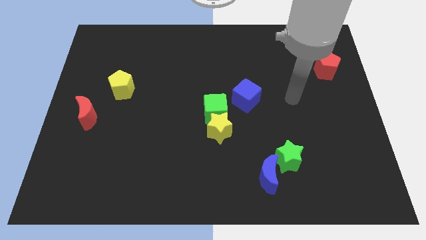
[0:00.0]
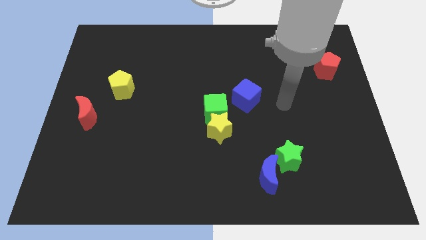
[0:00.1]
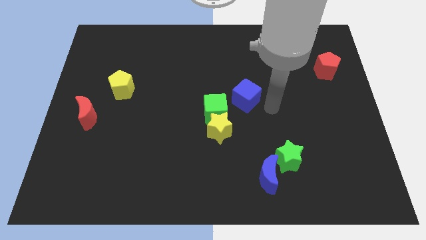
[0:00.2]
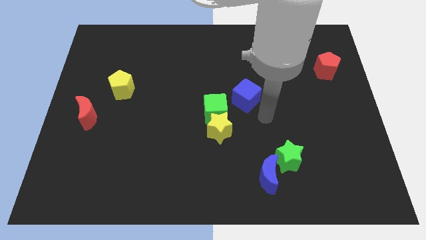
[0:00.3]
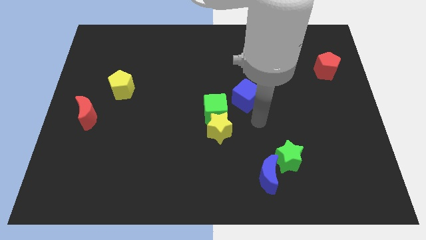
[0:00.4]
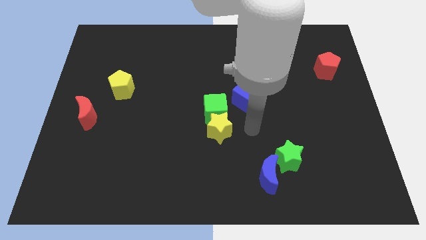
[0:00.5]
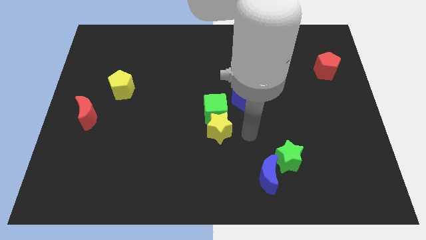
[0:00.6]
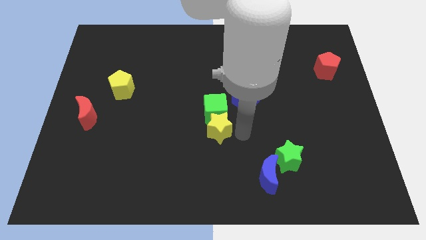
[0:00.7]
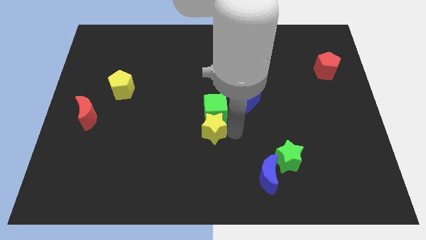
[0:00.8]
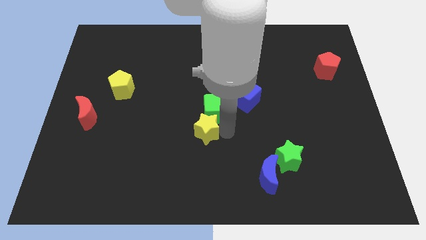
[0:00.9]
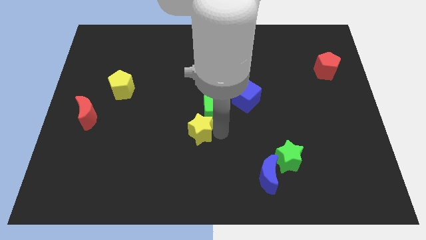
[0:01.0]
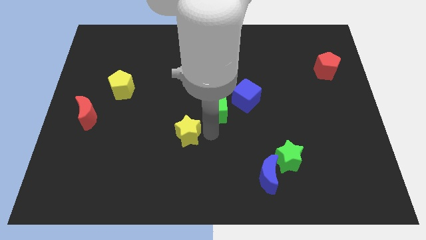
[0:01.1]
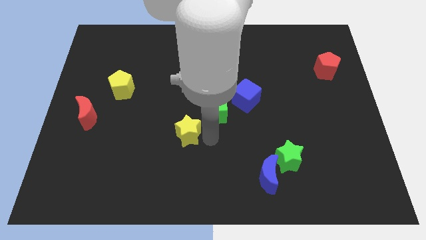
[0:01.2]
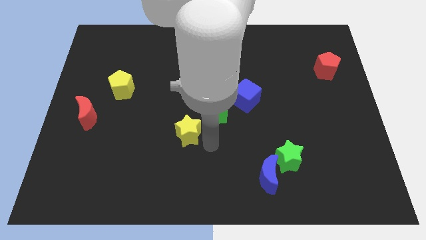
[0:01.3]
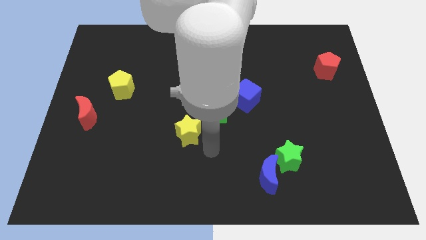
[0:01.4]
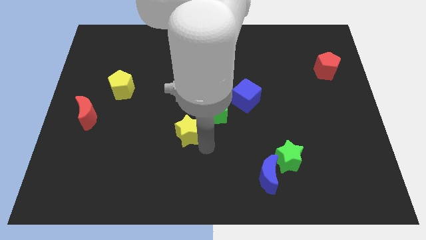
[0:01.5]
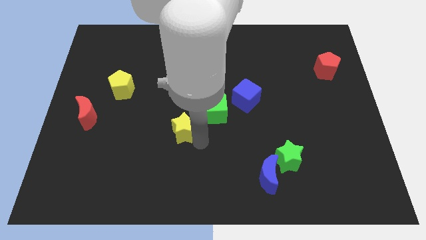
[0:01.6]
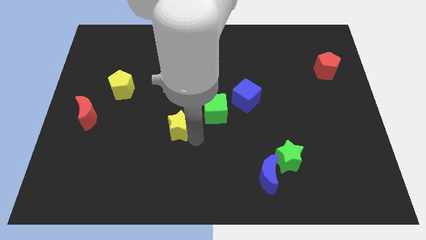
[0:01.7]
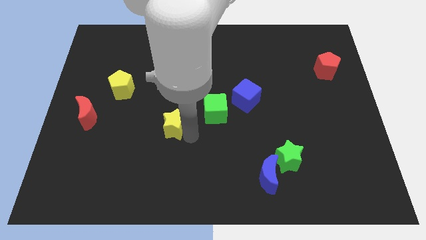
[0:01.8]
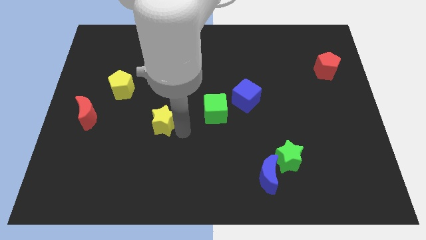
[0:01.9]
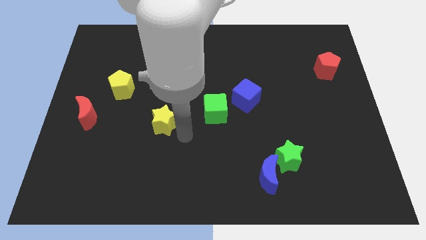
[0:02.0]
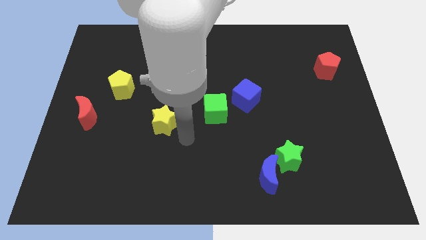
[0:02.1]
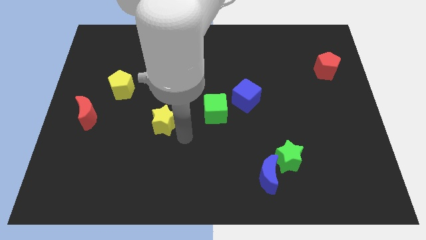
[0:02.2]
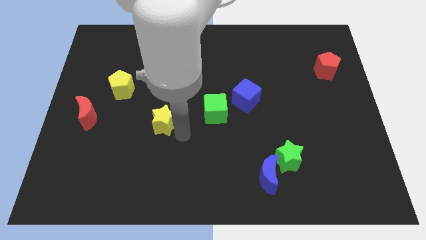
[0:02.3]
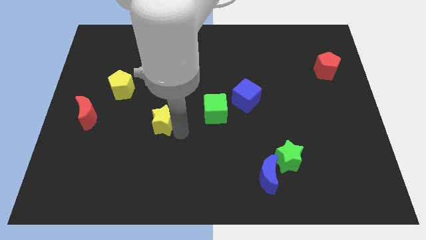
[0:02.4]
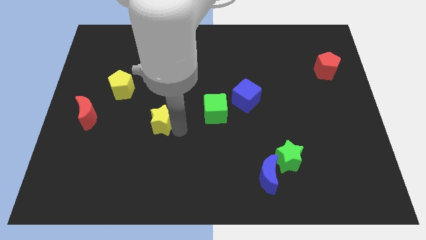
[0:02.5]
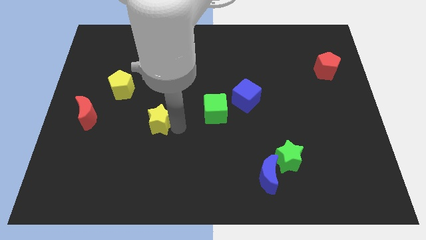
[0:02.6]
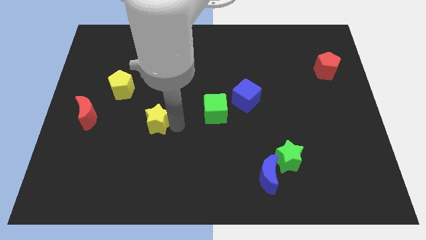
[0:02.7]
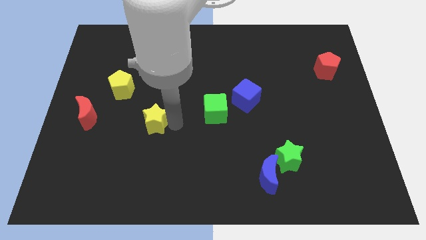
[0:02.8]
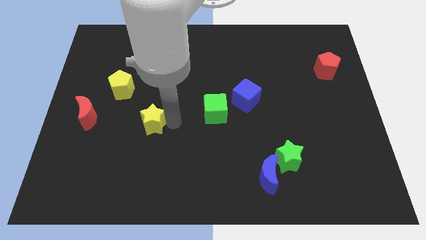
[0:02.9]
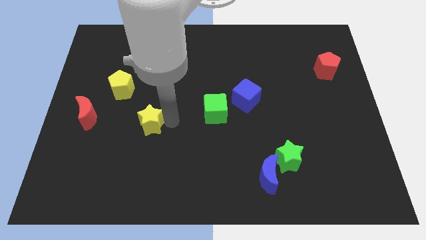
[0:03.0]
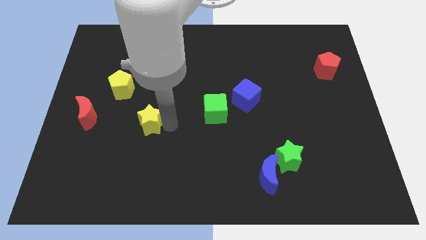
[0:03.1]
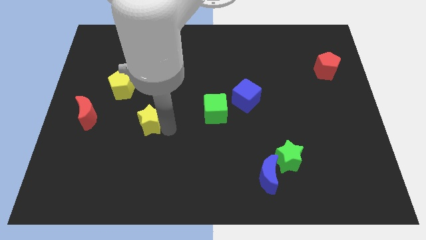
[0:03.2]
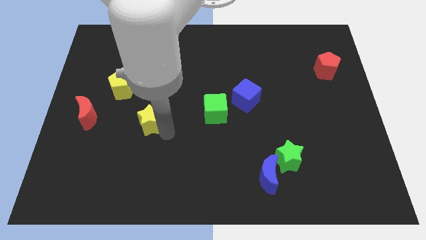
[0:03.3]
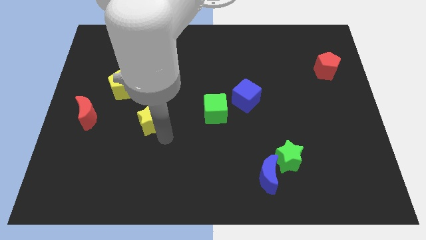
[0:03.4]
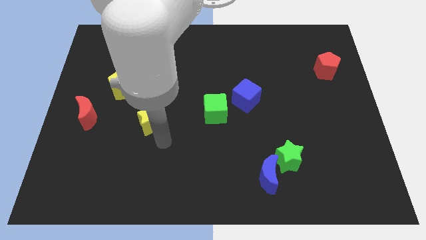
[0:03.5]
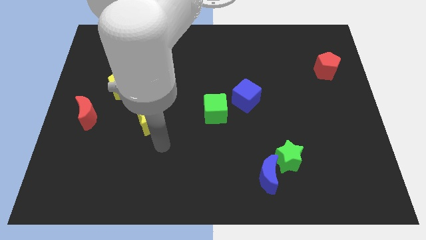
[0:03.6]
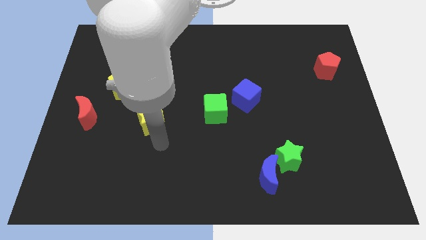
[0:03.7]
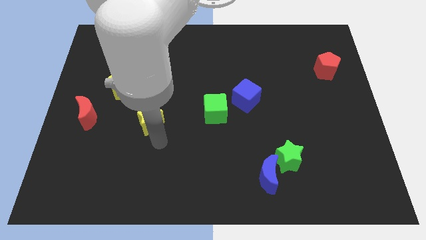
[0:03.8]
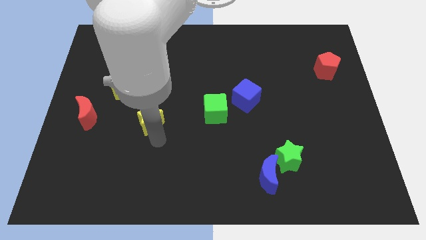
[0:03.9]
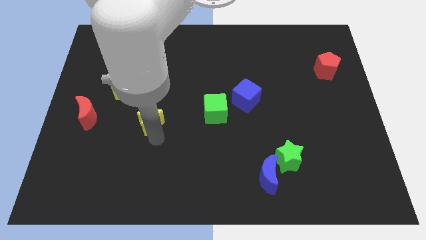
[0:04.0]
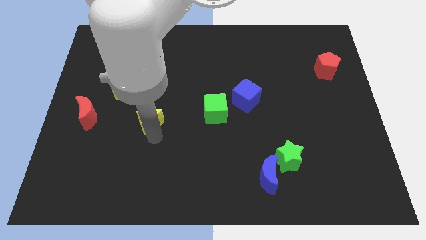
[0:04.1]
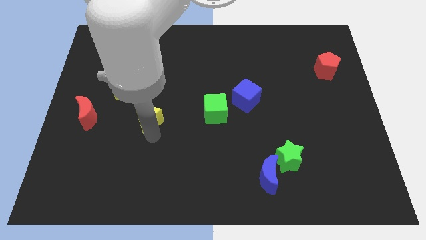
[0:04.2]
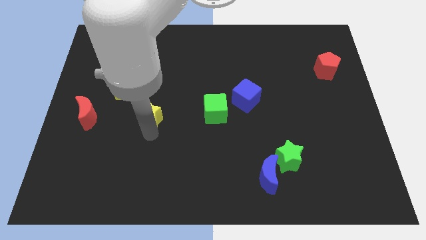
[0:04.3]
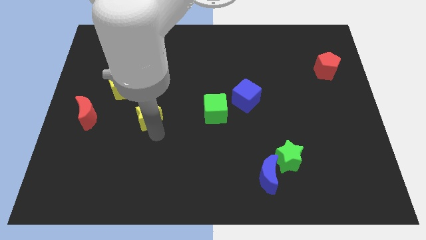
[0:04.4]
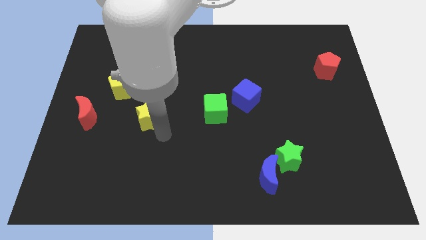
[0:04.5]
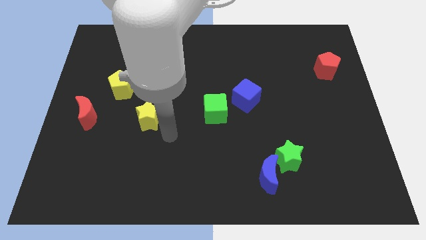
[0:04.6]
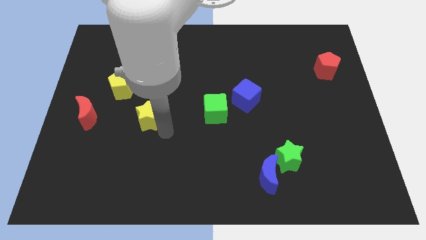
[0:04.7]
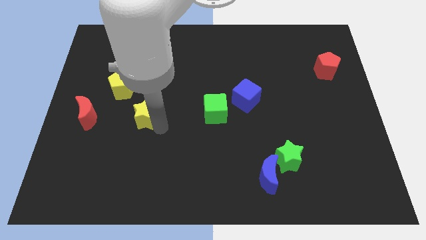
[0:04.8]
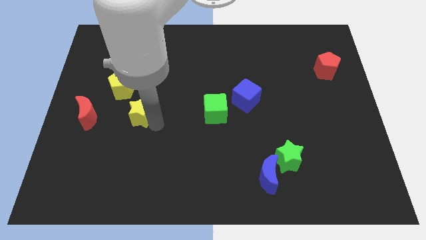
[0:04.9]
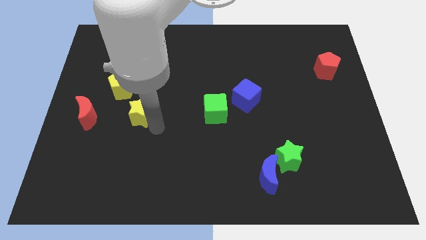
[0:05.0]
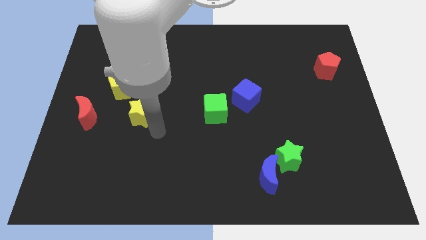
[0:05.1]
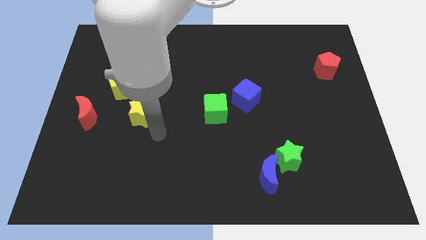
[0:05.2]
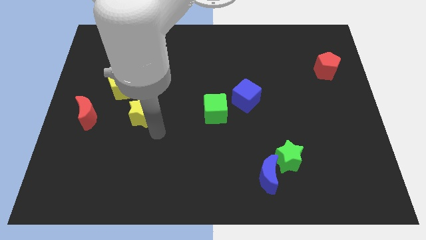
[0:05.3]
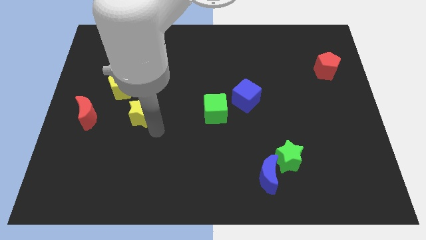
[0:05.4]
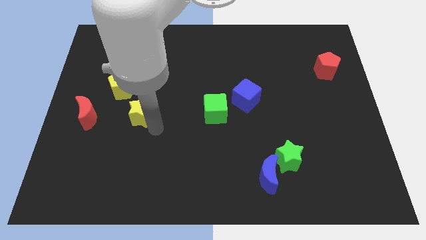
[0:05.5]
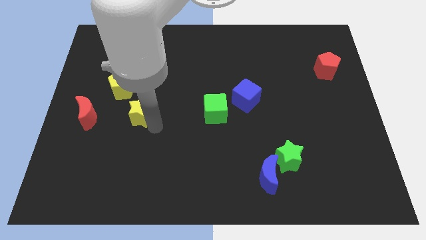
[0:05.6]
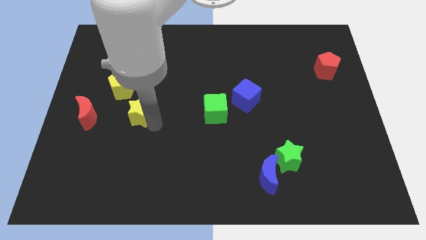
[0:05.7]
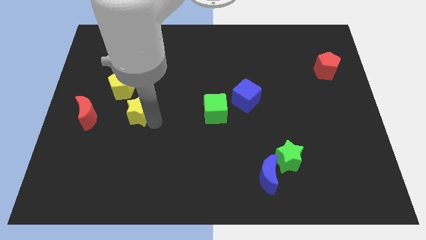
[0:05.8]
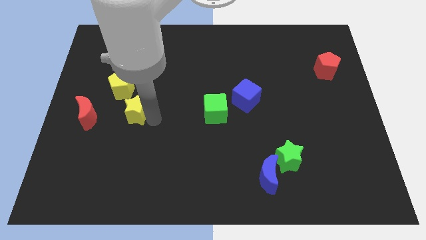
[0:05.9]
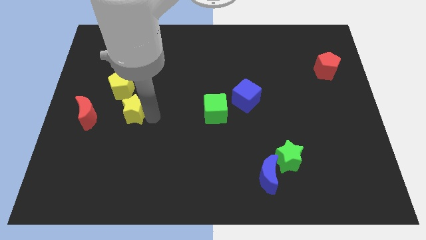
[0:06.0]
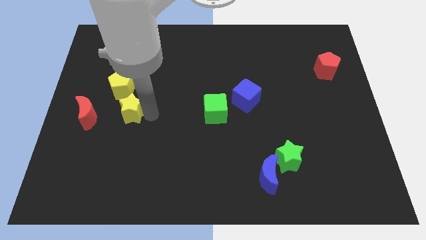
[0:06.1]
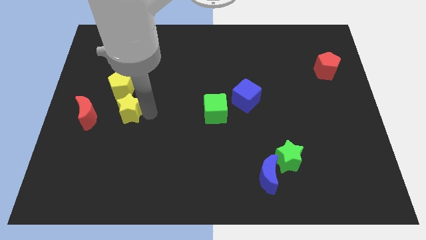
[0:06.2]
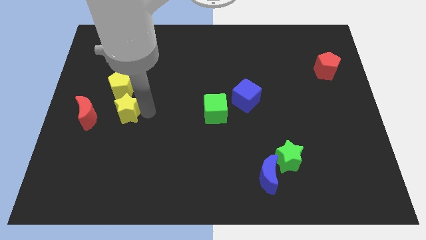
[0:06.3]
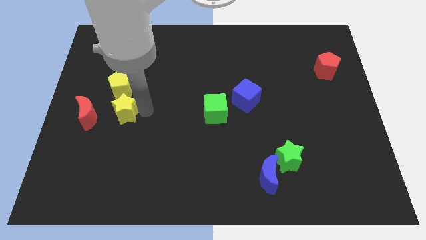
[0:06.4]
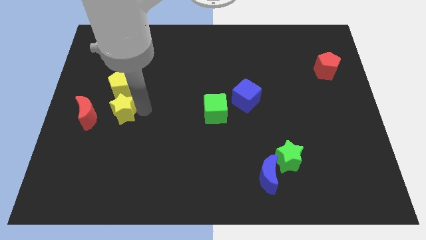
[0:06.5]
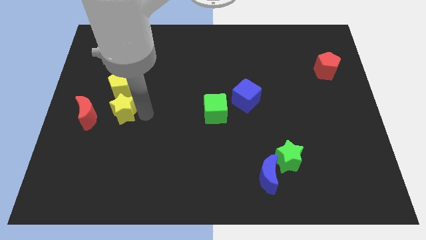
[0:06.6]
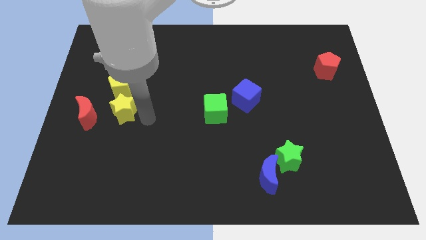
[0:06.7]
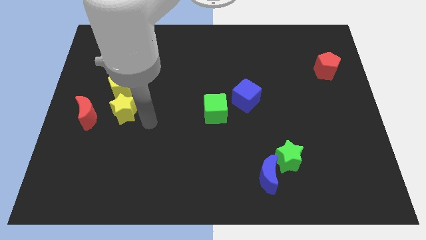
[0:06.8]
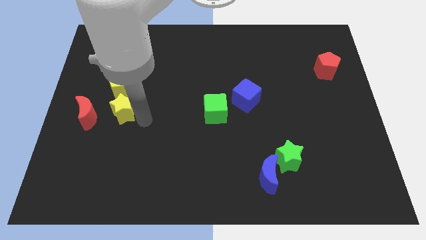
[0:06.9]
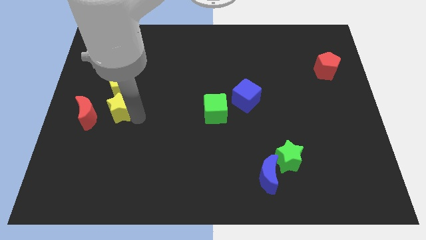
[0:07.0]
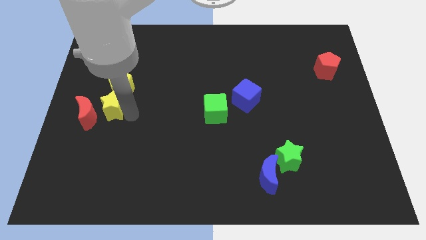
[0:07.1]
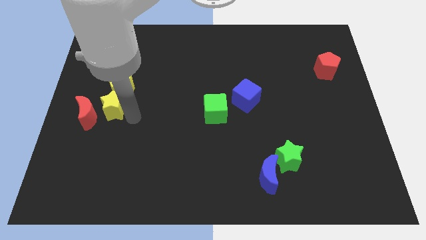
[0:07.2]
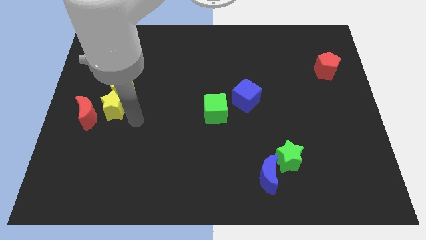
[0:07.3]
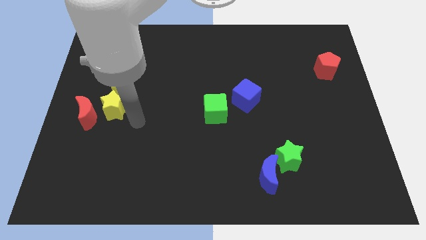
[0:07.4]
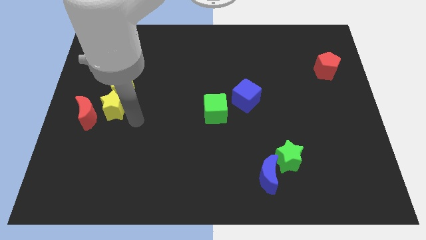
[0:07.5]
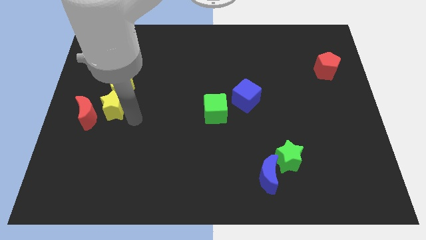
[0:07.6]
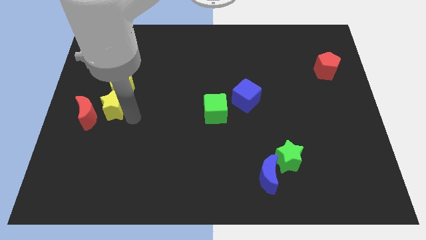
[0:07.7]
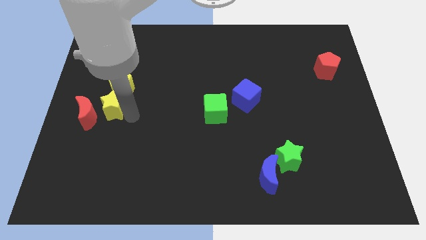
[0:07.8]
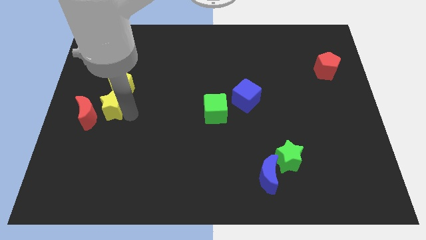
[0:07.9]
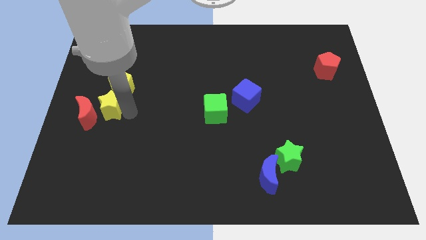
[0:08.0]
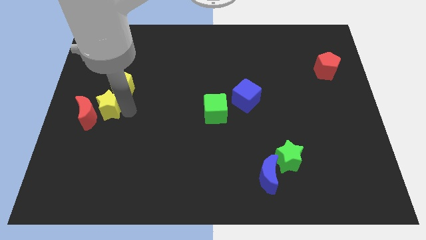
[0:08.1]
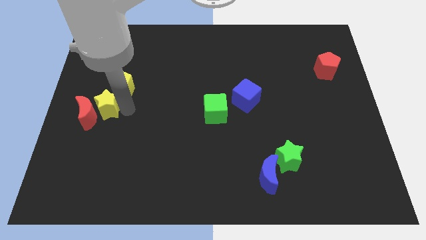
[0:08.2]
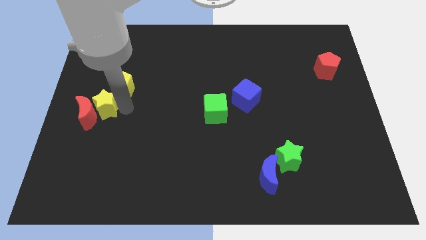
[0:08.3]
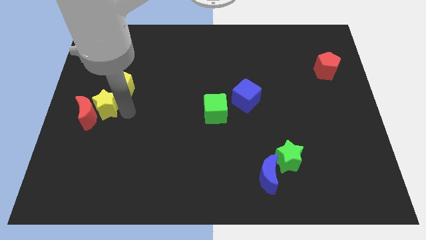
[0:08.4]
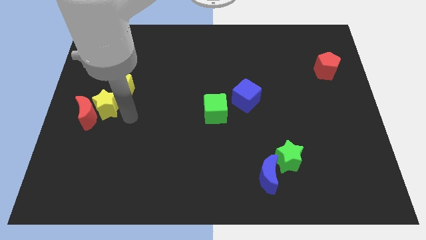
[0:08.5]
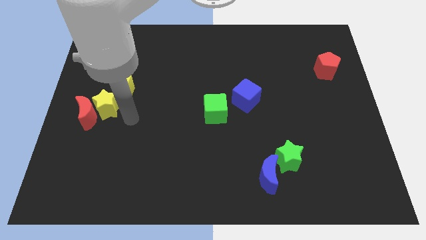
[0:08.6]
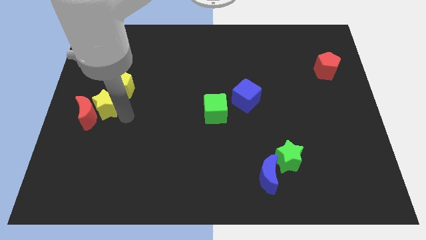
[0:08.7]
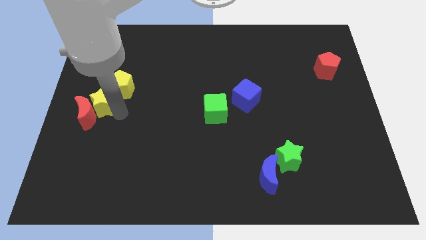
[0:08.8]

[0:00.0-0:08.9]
move the yellow star to the center left
